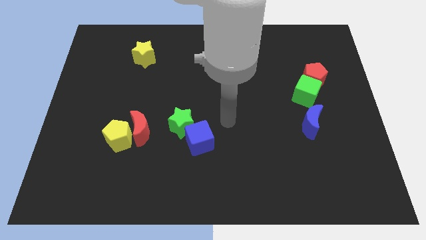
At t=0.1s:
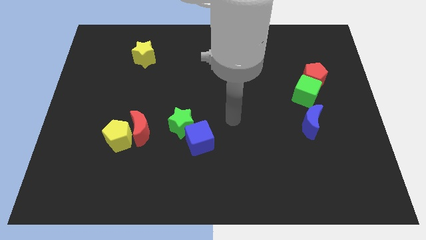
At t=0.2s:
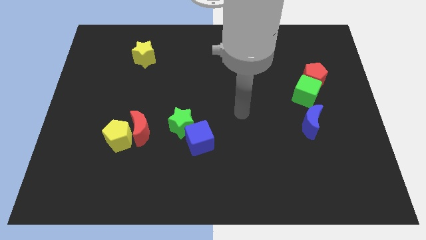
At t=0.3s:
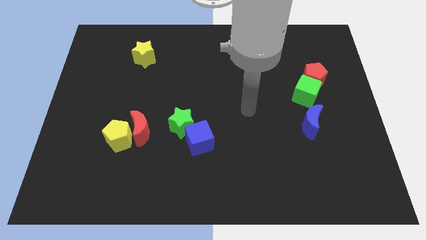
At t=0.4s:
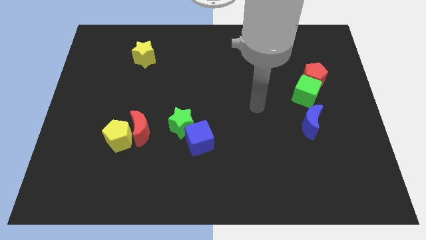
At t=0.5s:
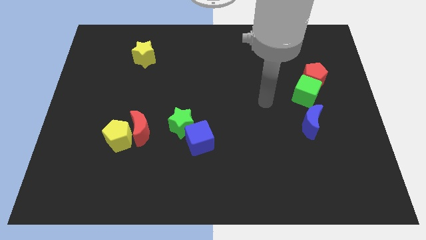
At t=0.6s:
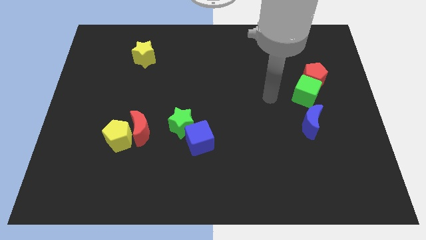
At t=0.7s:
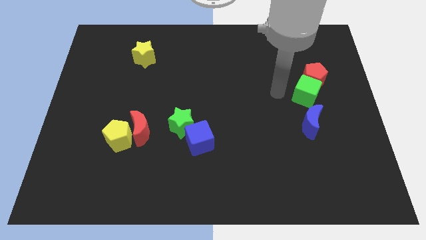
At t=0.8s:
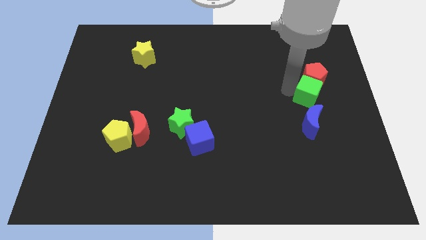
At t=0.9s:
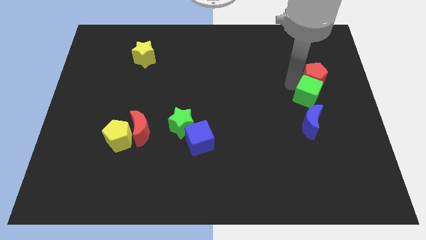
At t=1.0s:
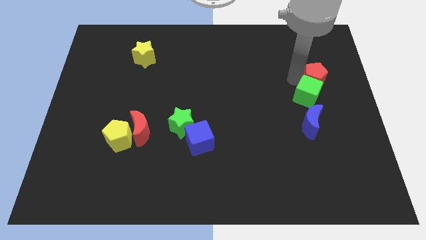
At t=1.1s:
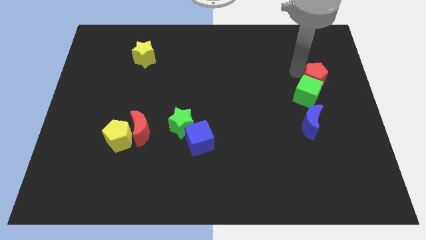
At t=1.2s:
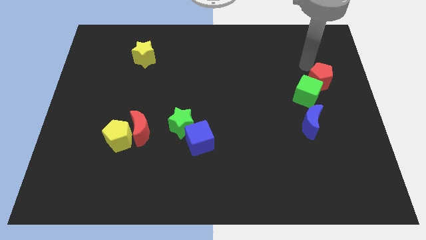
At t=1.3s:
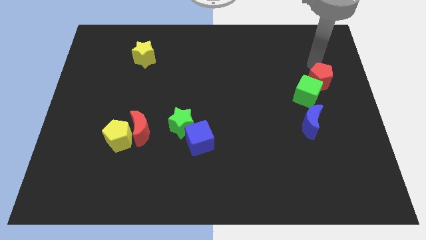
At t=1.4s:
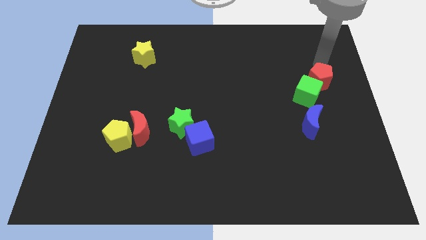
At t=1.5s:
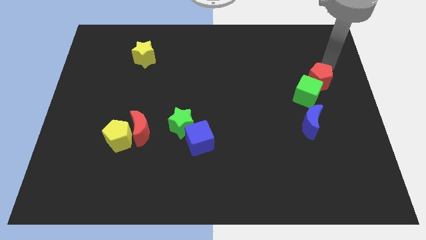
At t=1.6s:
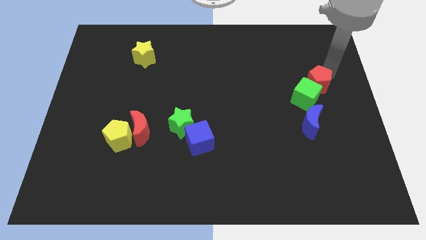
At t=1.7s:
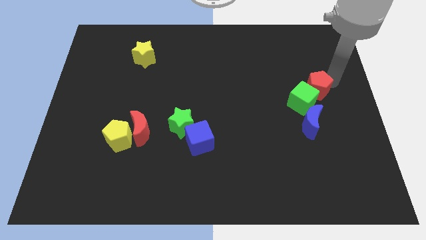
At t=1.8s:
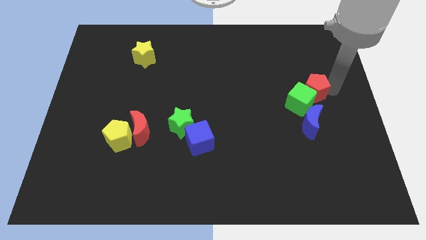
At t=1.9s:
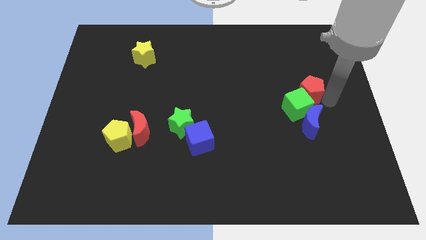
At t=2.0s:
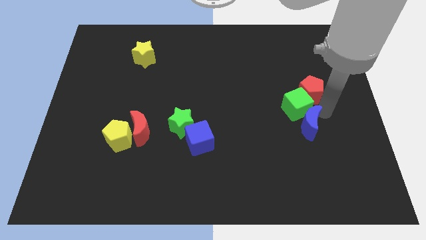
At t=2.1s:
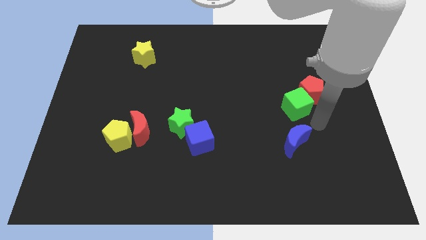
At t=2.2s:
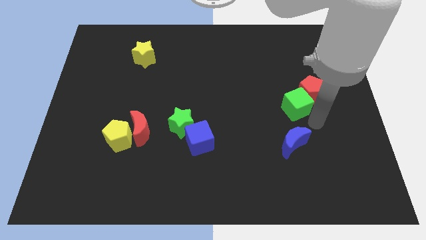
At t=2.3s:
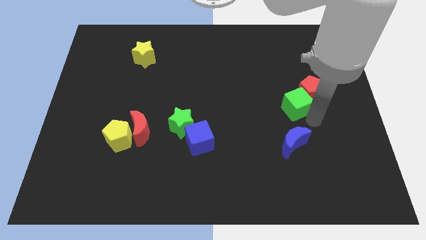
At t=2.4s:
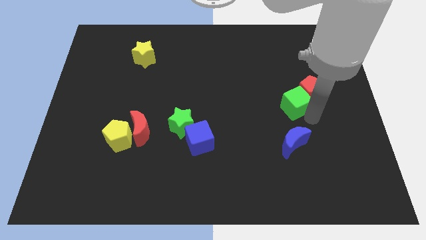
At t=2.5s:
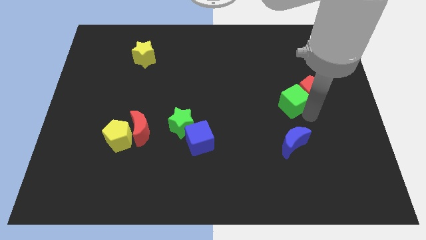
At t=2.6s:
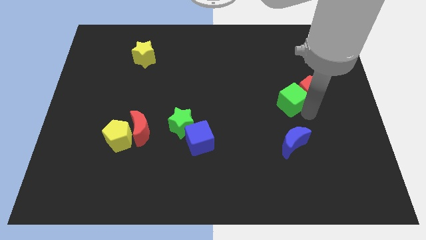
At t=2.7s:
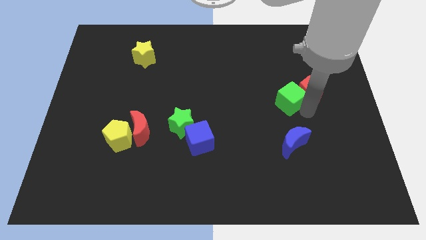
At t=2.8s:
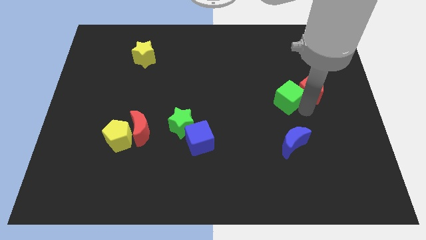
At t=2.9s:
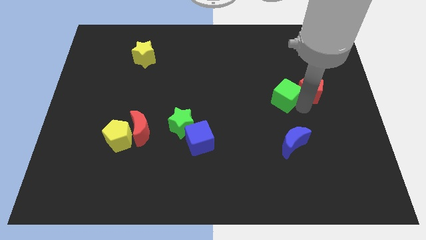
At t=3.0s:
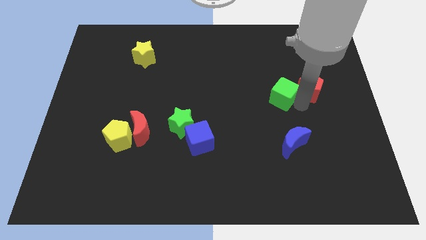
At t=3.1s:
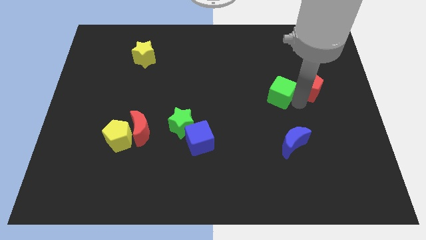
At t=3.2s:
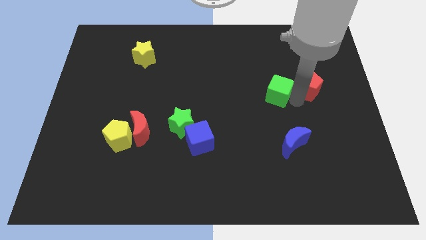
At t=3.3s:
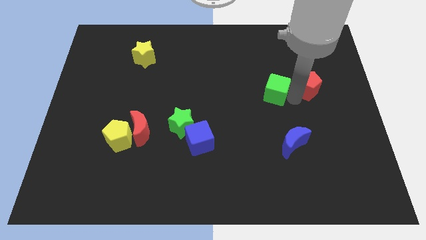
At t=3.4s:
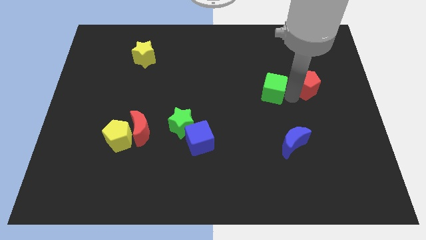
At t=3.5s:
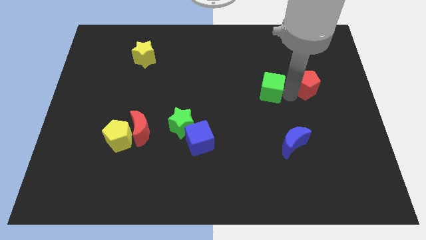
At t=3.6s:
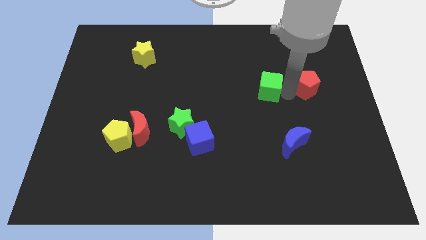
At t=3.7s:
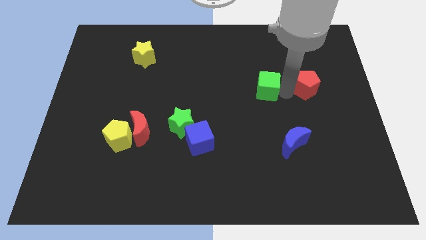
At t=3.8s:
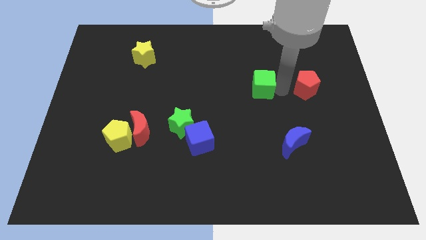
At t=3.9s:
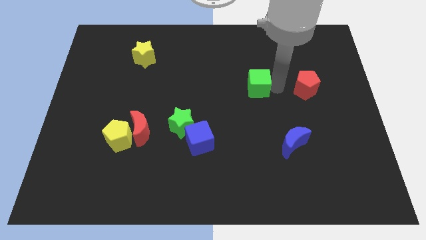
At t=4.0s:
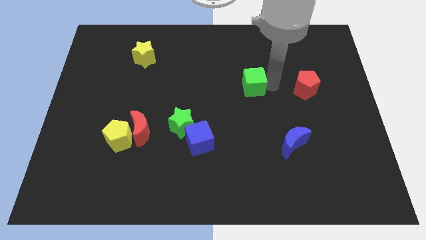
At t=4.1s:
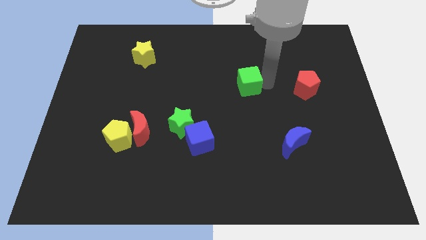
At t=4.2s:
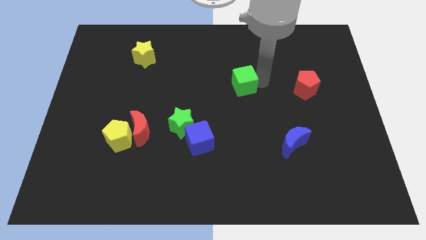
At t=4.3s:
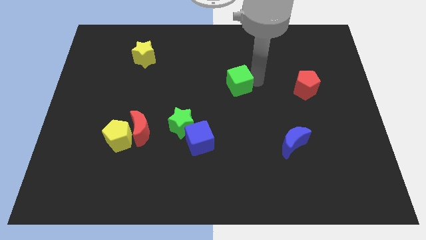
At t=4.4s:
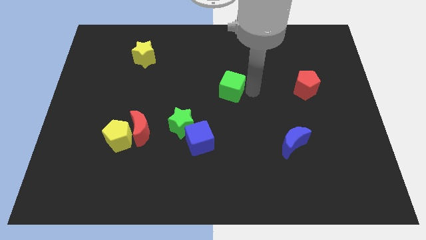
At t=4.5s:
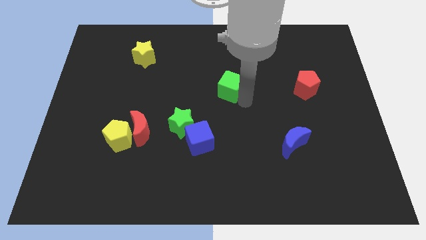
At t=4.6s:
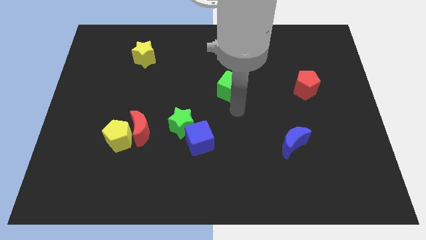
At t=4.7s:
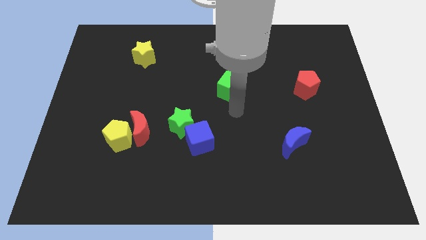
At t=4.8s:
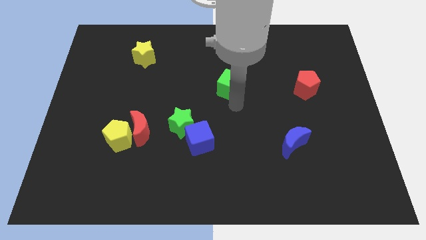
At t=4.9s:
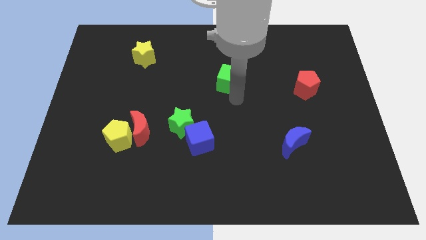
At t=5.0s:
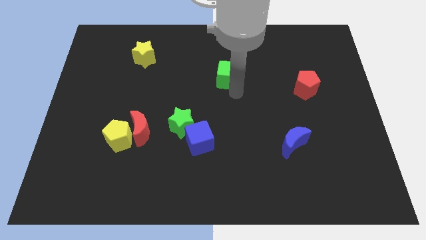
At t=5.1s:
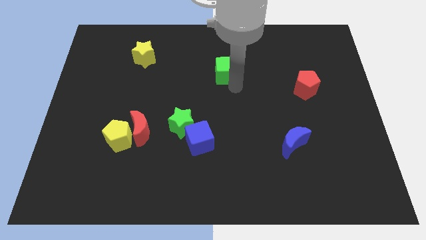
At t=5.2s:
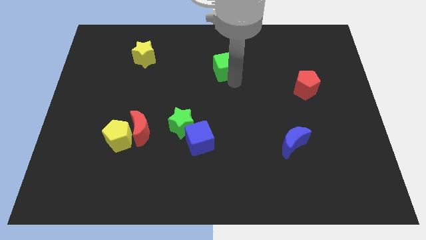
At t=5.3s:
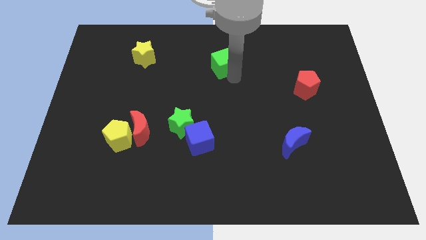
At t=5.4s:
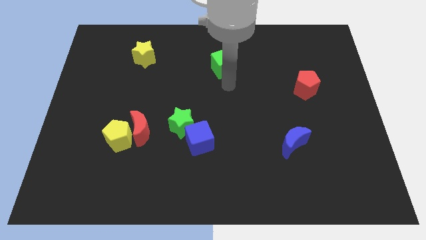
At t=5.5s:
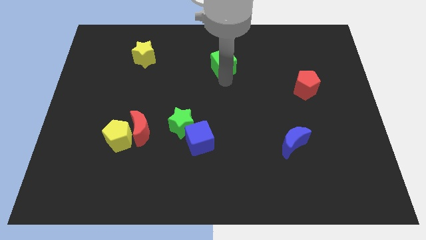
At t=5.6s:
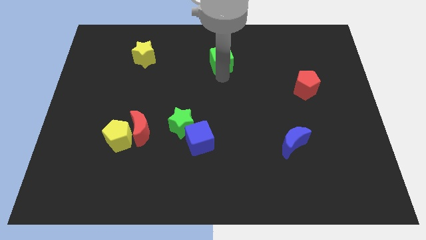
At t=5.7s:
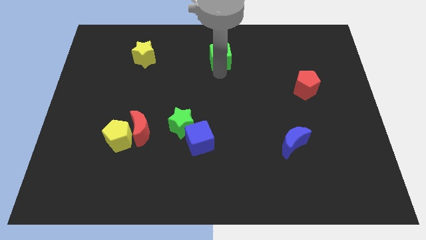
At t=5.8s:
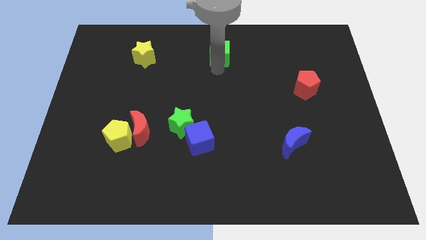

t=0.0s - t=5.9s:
slide the green cube to the top side
